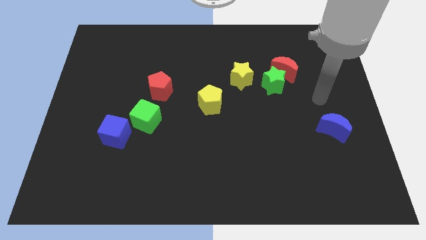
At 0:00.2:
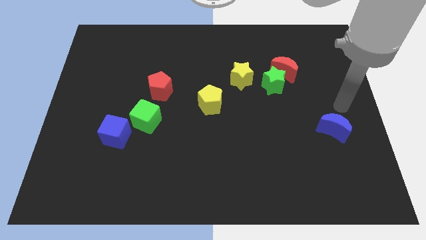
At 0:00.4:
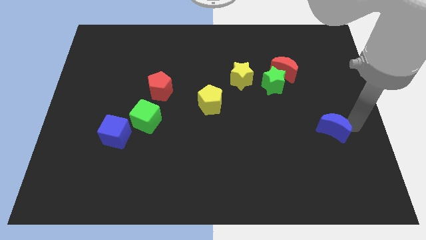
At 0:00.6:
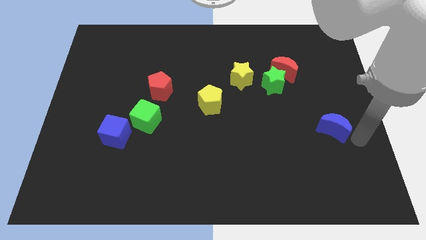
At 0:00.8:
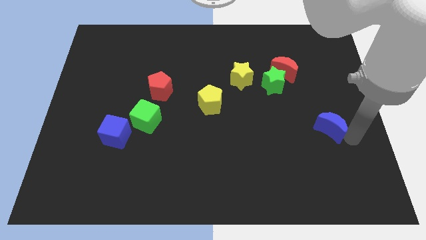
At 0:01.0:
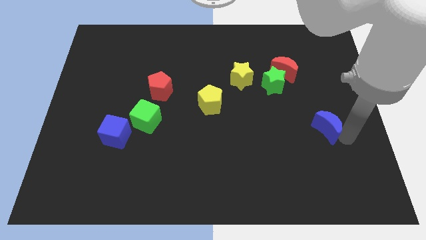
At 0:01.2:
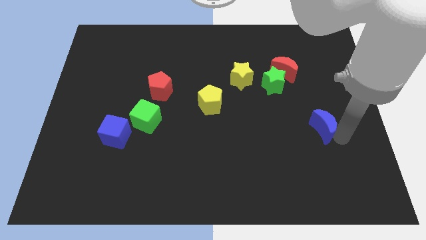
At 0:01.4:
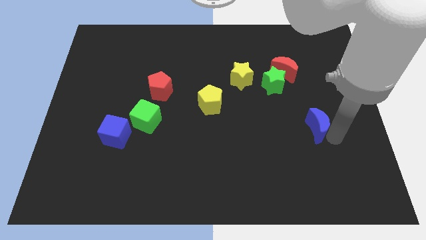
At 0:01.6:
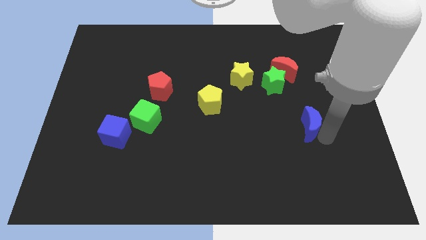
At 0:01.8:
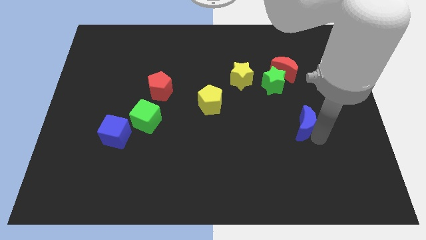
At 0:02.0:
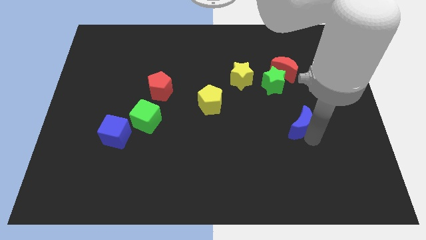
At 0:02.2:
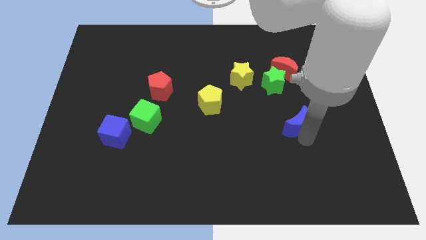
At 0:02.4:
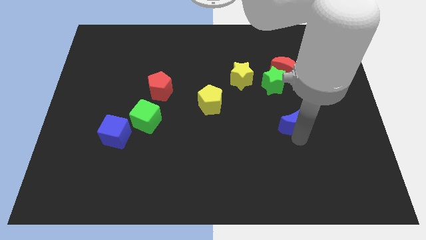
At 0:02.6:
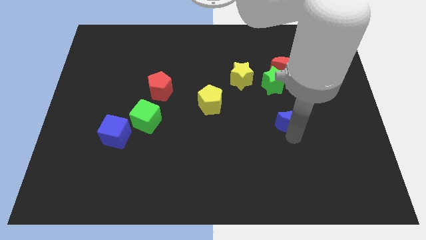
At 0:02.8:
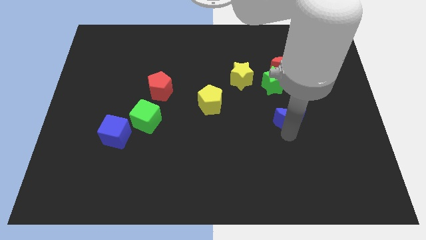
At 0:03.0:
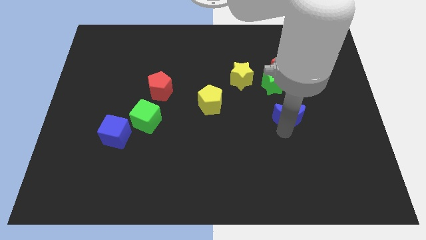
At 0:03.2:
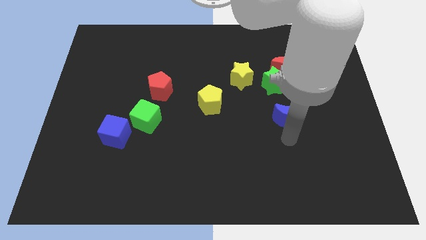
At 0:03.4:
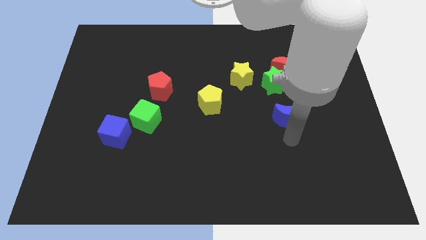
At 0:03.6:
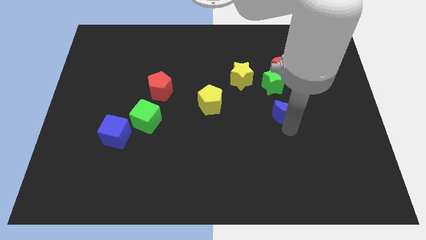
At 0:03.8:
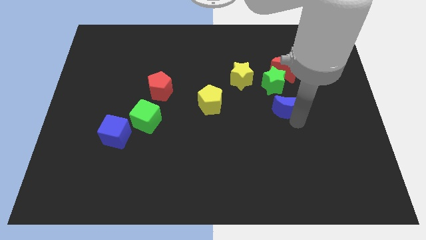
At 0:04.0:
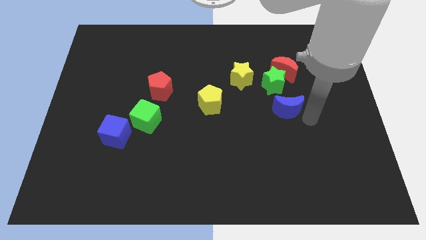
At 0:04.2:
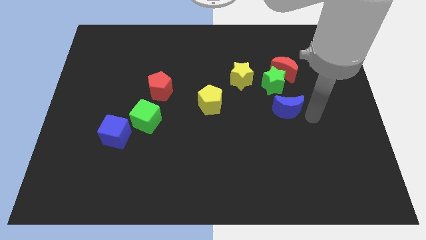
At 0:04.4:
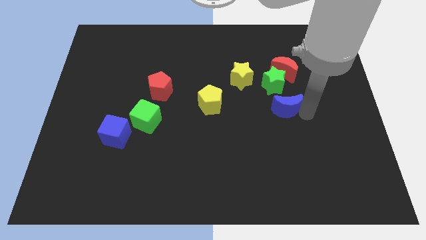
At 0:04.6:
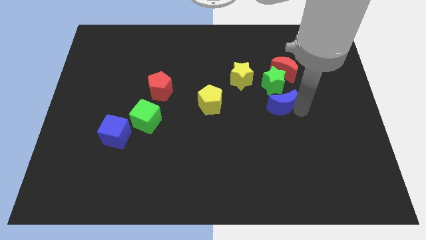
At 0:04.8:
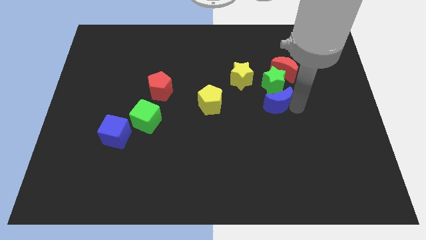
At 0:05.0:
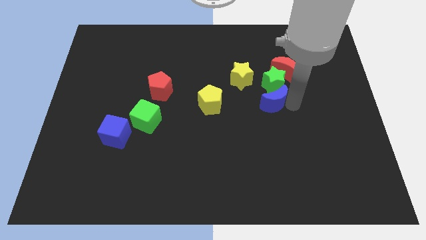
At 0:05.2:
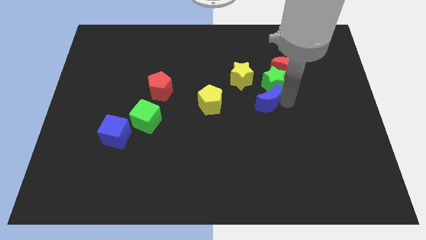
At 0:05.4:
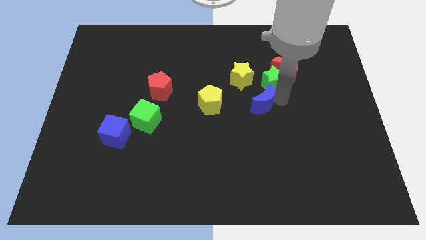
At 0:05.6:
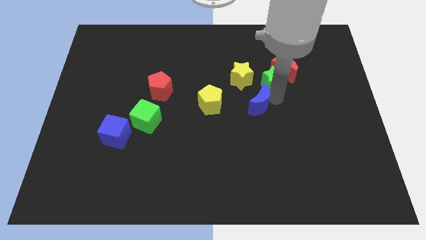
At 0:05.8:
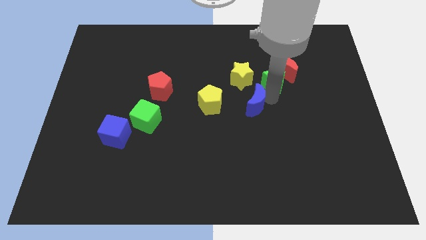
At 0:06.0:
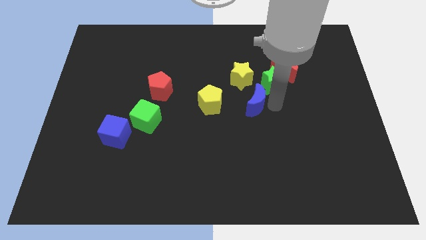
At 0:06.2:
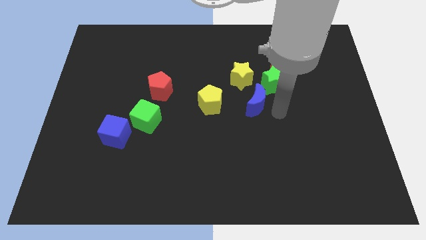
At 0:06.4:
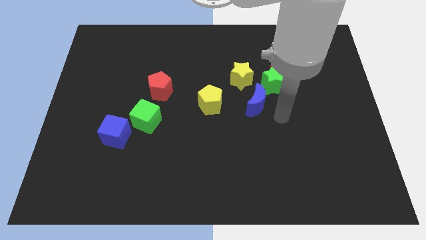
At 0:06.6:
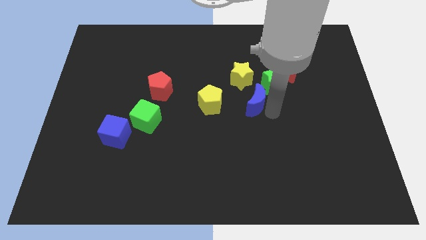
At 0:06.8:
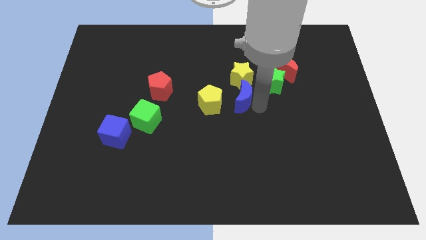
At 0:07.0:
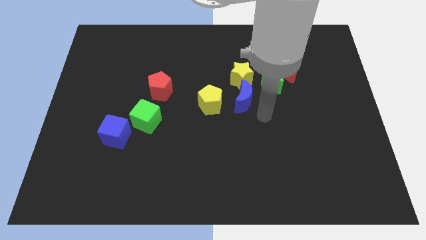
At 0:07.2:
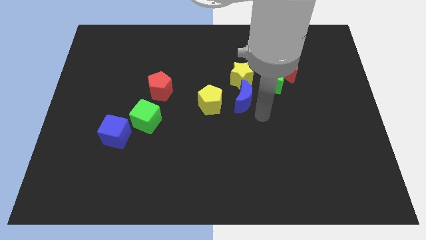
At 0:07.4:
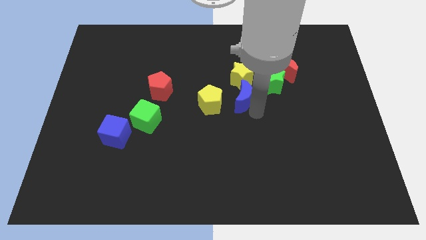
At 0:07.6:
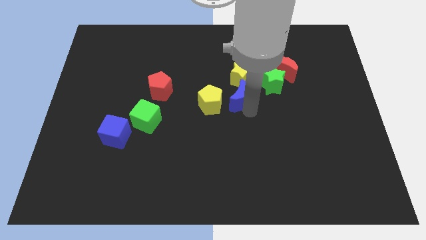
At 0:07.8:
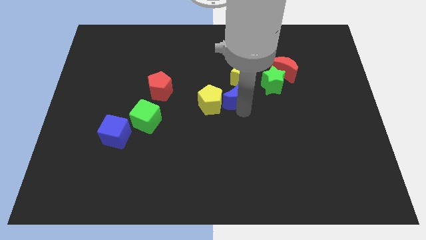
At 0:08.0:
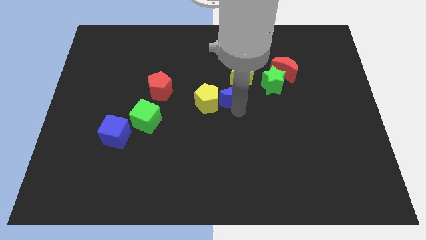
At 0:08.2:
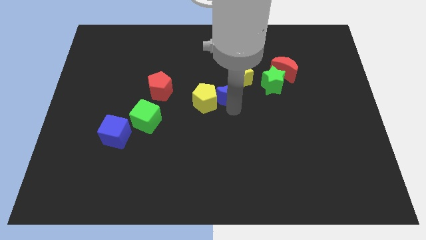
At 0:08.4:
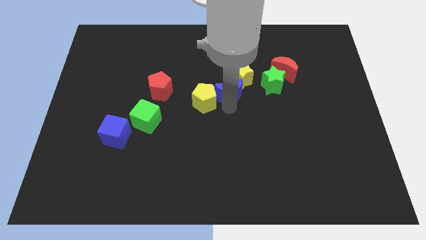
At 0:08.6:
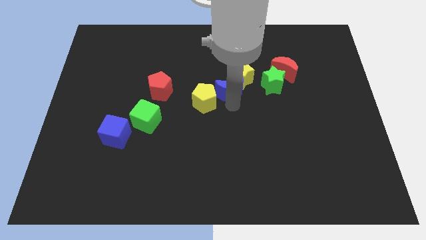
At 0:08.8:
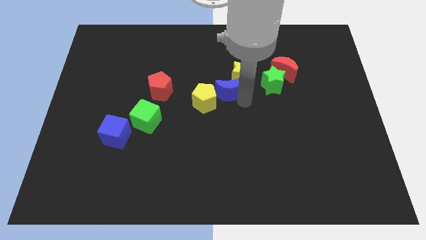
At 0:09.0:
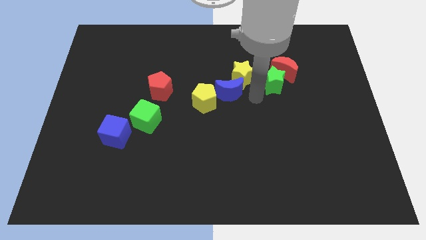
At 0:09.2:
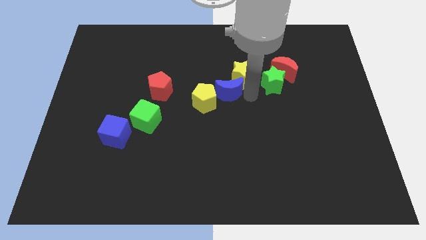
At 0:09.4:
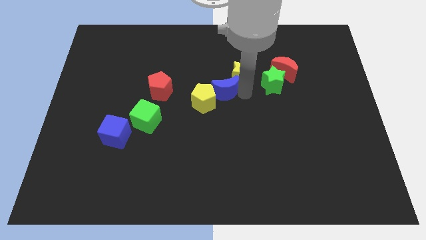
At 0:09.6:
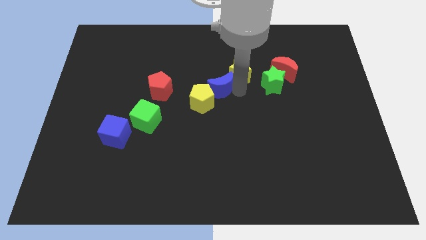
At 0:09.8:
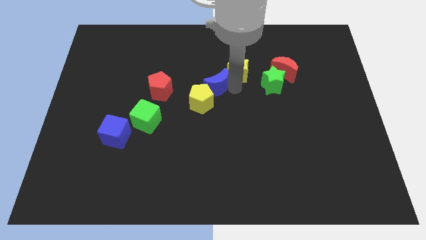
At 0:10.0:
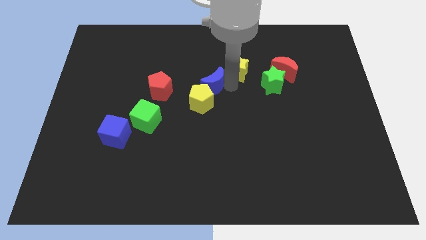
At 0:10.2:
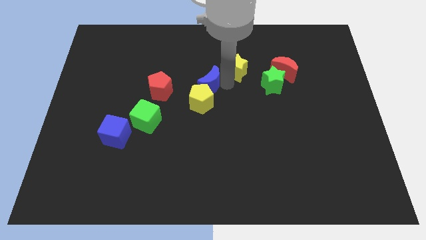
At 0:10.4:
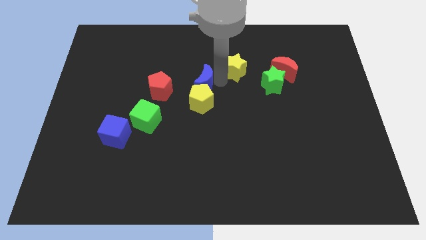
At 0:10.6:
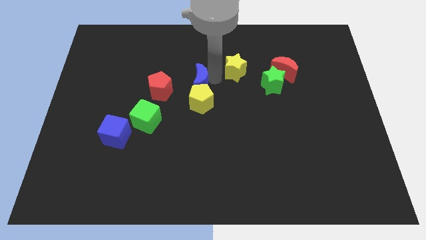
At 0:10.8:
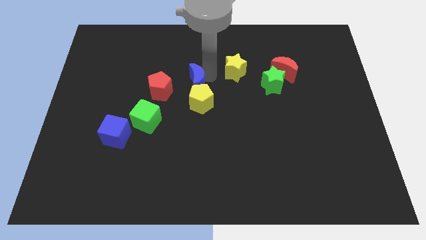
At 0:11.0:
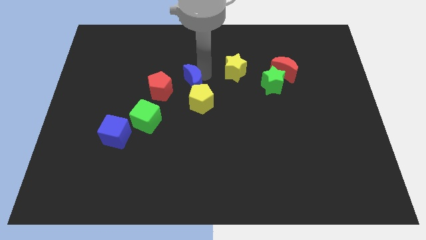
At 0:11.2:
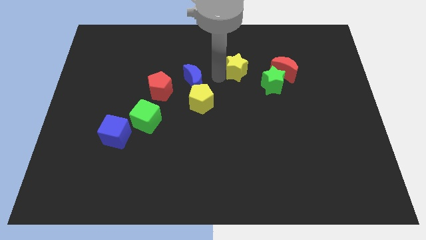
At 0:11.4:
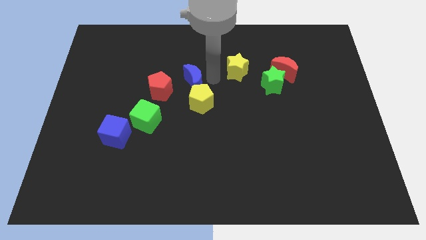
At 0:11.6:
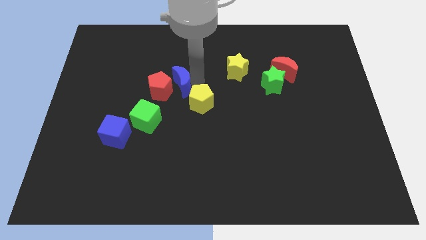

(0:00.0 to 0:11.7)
put the blue moon towards the red pentagon

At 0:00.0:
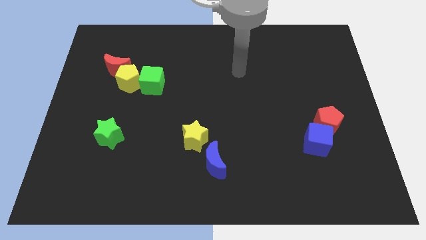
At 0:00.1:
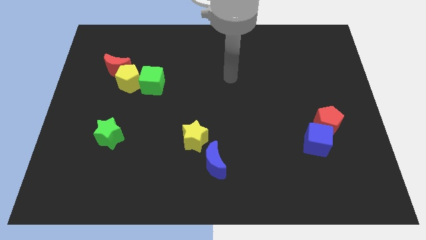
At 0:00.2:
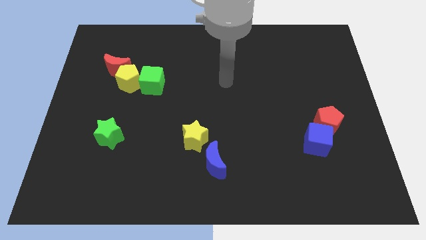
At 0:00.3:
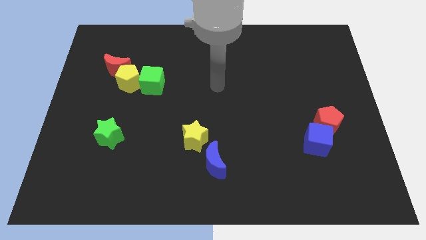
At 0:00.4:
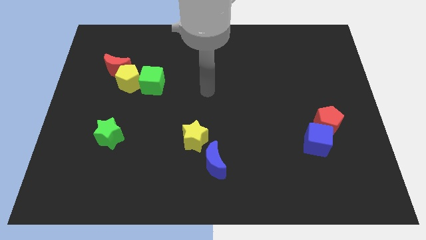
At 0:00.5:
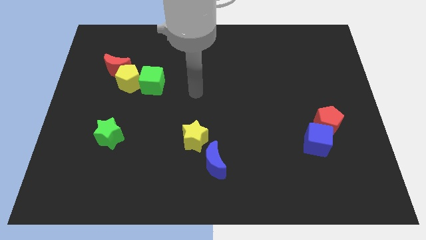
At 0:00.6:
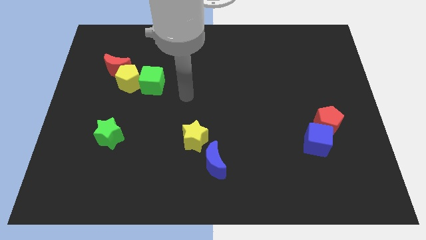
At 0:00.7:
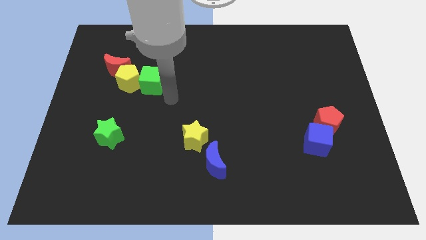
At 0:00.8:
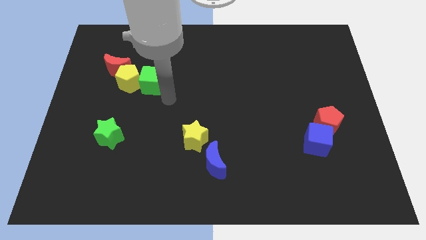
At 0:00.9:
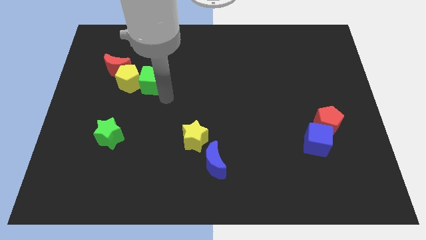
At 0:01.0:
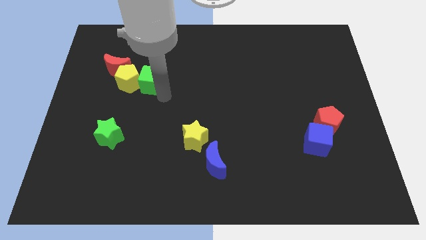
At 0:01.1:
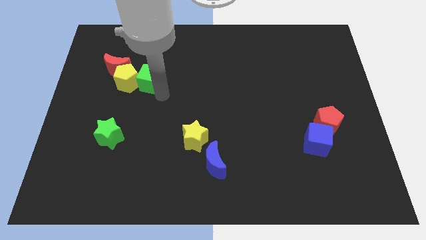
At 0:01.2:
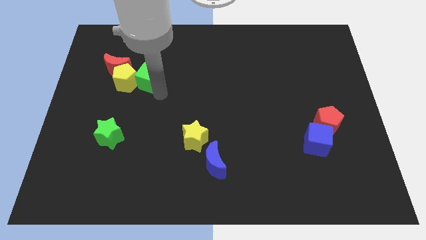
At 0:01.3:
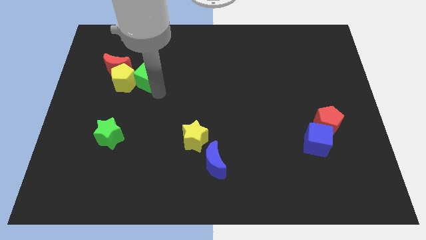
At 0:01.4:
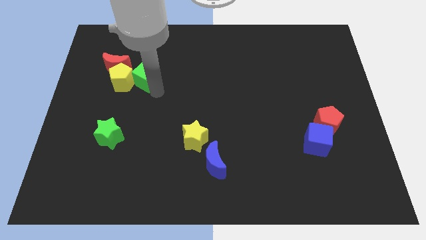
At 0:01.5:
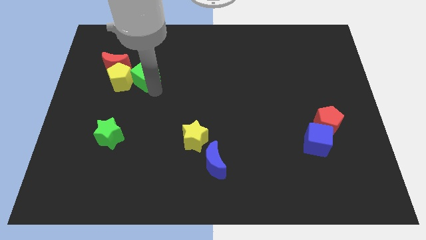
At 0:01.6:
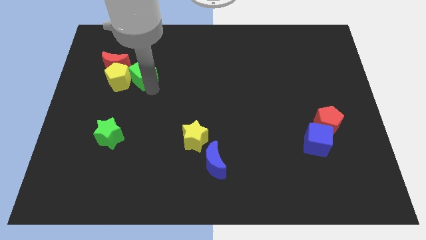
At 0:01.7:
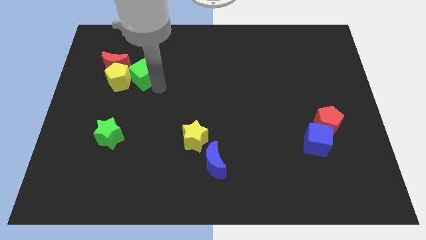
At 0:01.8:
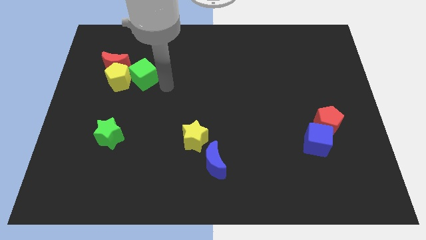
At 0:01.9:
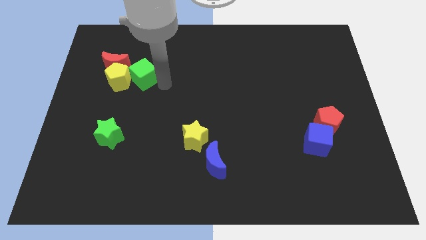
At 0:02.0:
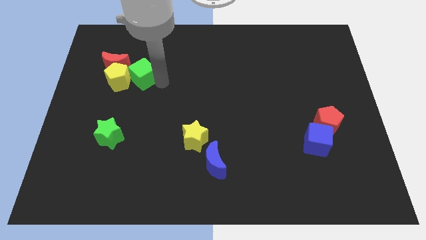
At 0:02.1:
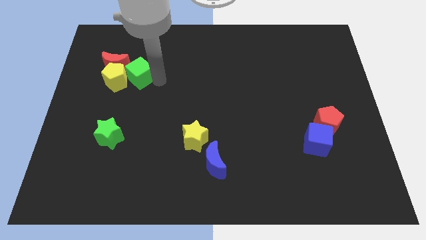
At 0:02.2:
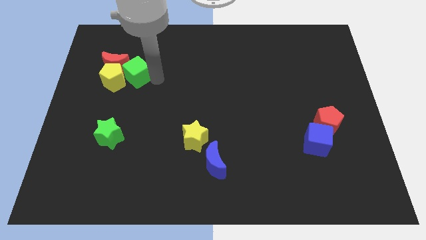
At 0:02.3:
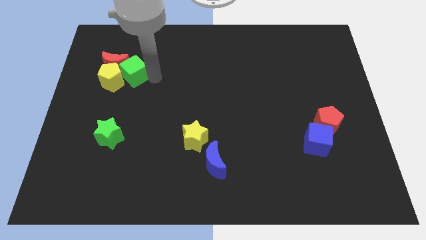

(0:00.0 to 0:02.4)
push the green cube close to the red moon

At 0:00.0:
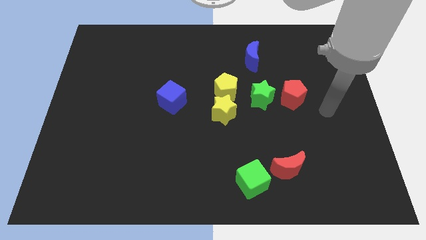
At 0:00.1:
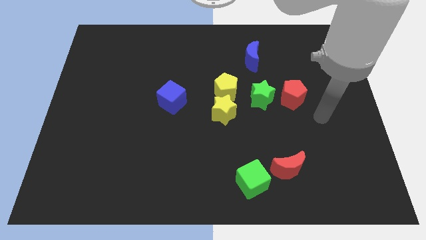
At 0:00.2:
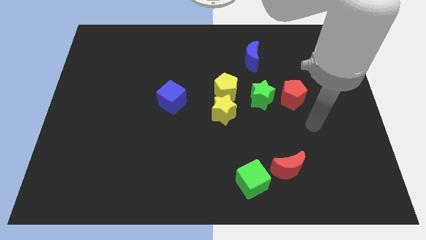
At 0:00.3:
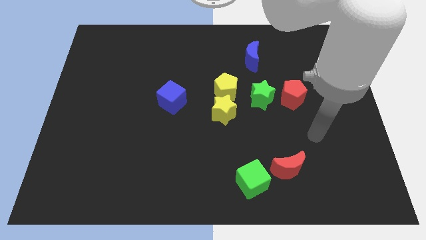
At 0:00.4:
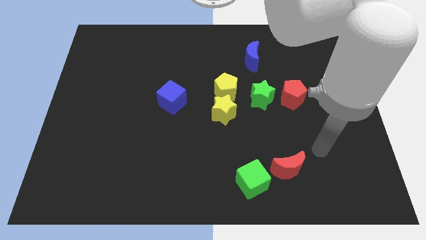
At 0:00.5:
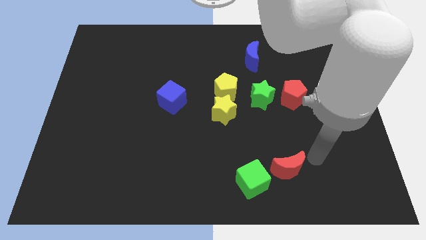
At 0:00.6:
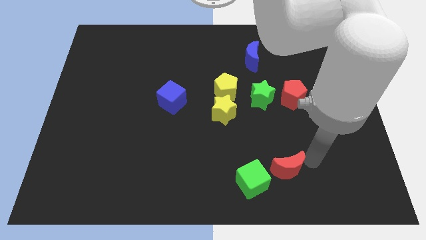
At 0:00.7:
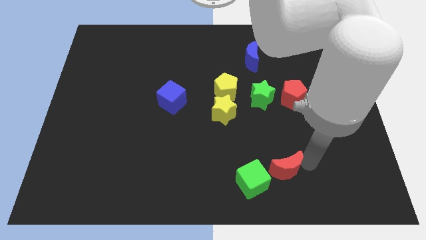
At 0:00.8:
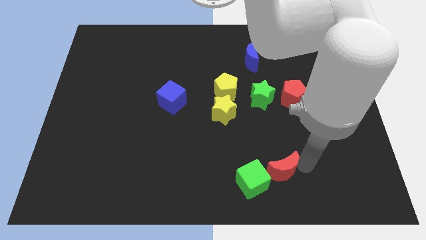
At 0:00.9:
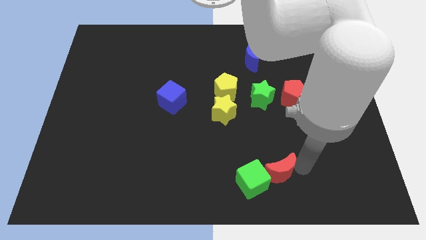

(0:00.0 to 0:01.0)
move the red moon to the green cube
